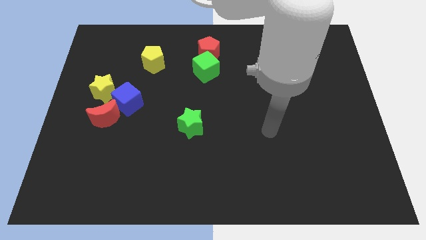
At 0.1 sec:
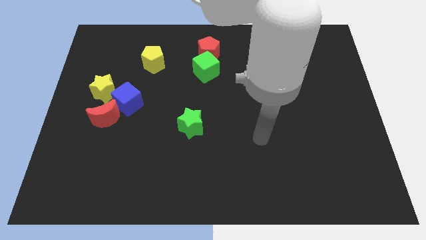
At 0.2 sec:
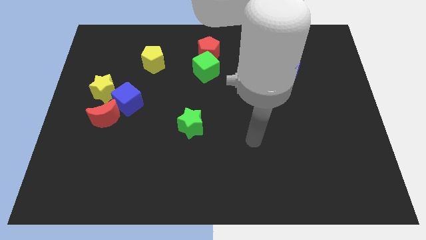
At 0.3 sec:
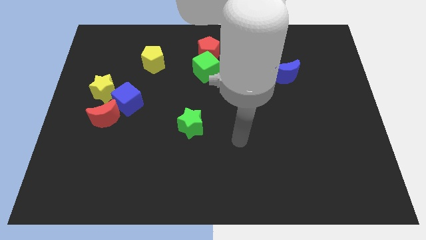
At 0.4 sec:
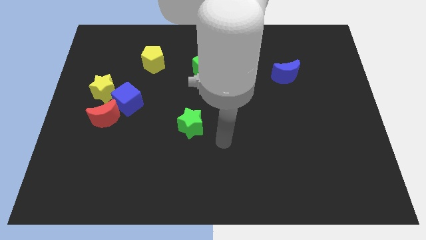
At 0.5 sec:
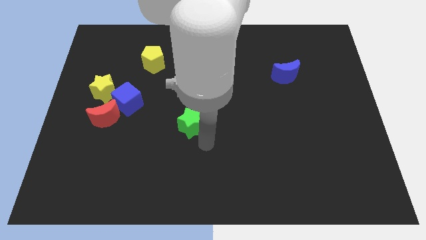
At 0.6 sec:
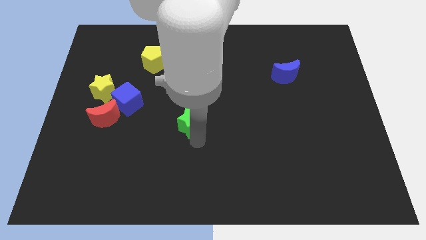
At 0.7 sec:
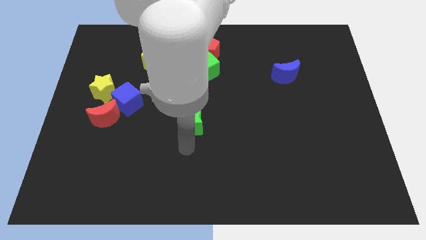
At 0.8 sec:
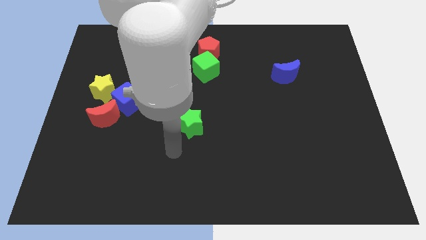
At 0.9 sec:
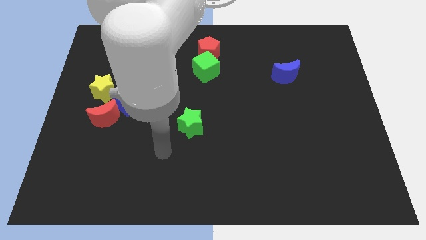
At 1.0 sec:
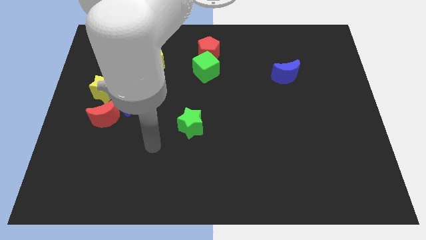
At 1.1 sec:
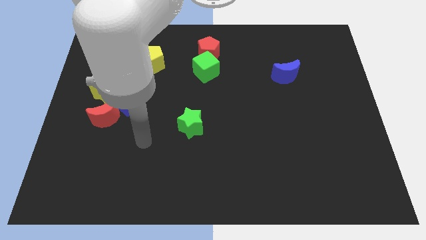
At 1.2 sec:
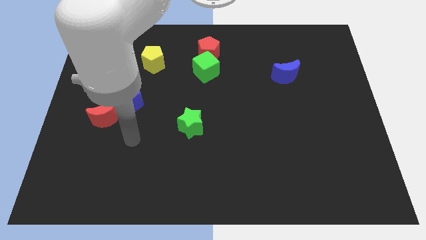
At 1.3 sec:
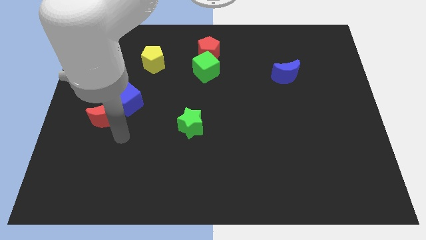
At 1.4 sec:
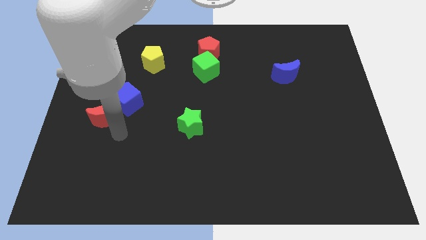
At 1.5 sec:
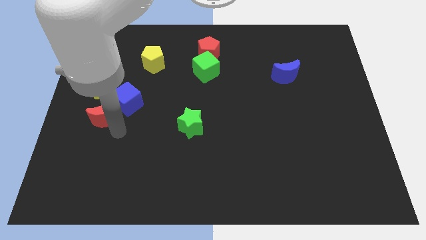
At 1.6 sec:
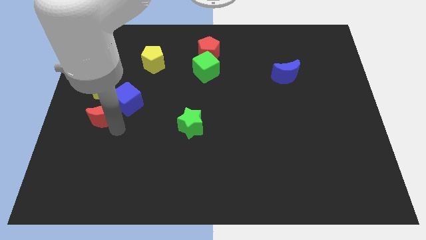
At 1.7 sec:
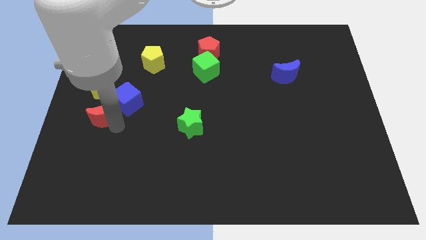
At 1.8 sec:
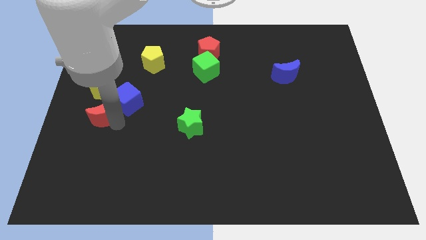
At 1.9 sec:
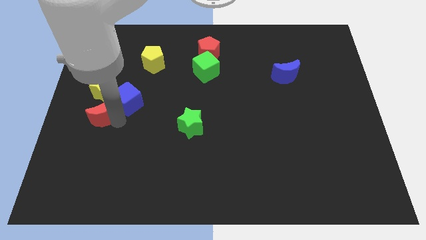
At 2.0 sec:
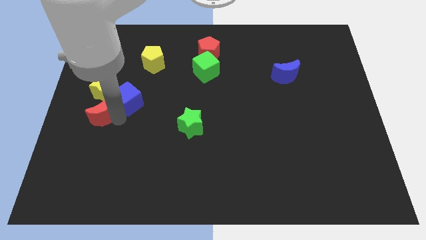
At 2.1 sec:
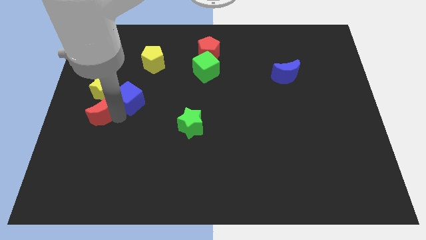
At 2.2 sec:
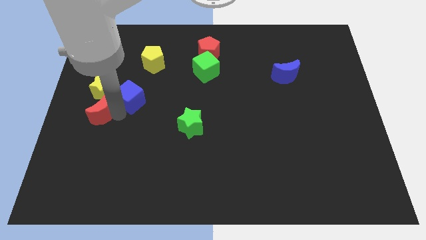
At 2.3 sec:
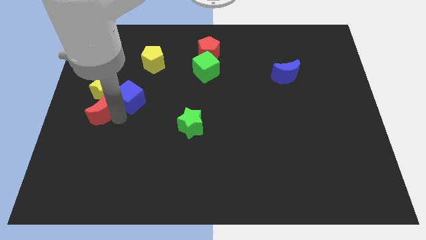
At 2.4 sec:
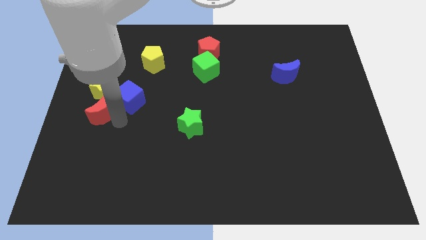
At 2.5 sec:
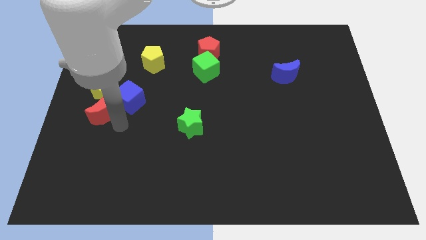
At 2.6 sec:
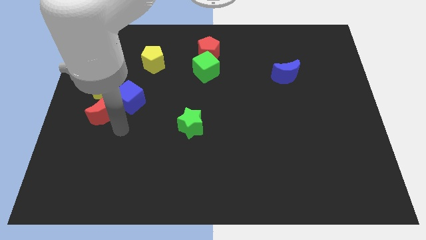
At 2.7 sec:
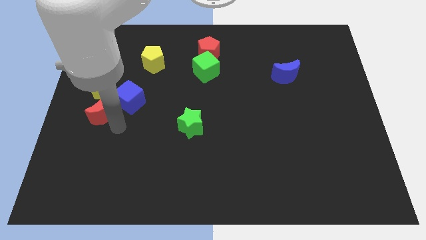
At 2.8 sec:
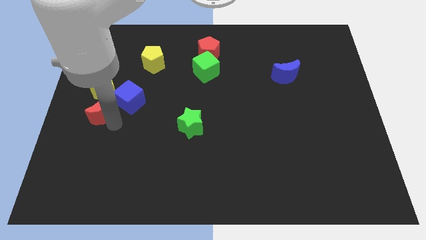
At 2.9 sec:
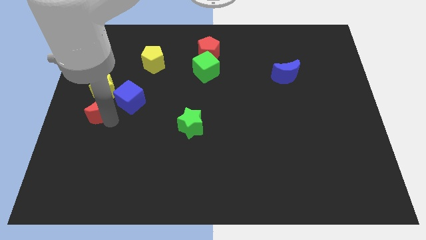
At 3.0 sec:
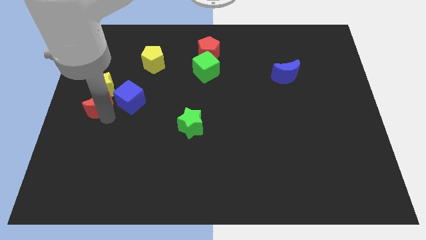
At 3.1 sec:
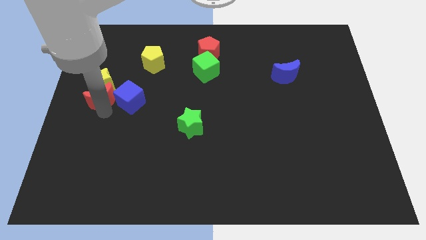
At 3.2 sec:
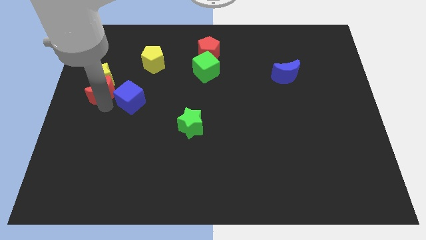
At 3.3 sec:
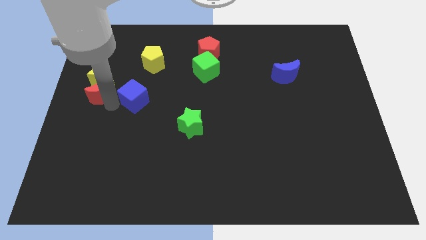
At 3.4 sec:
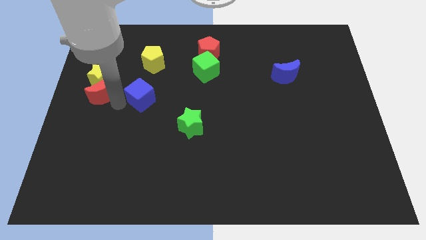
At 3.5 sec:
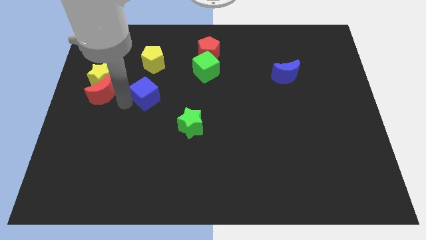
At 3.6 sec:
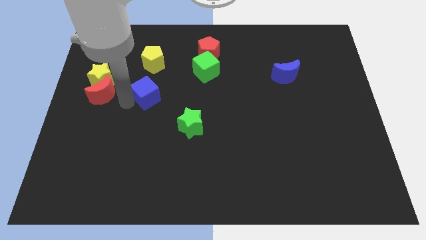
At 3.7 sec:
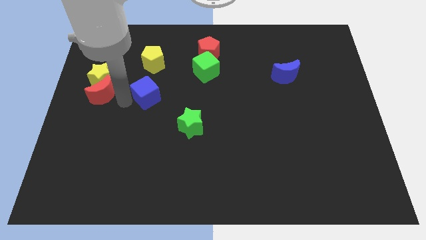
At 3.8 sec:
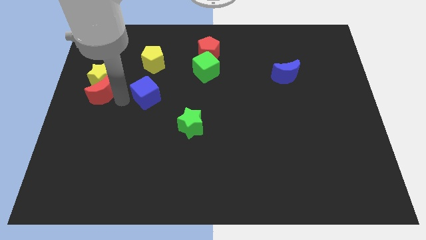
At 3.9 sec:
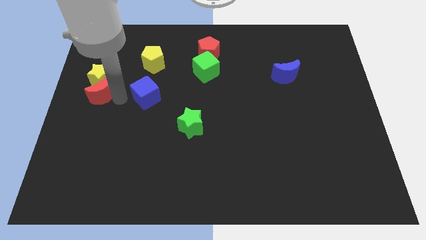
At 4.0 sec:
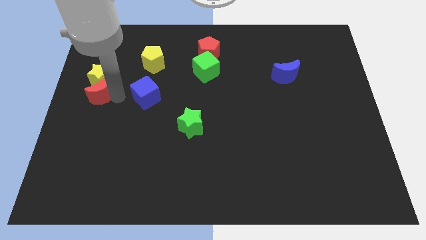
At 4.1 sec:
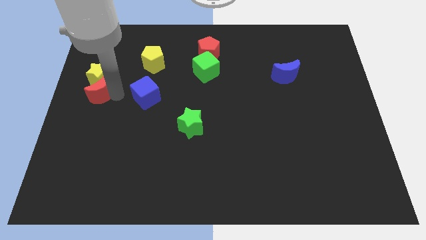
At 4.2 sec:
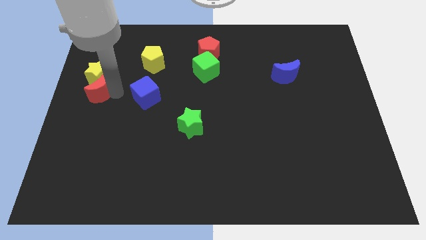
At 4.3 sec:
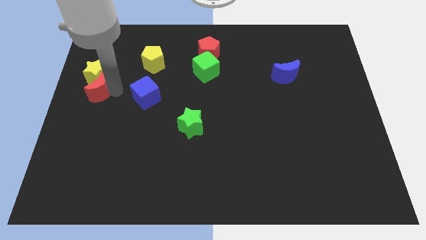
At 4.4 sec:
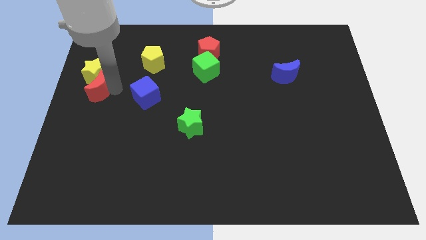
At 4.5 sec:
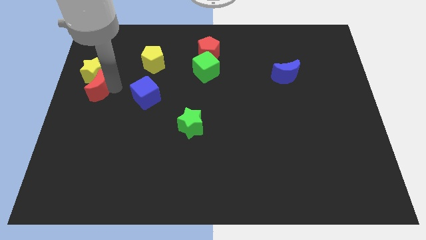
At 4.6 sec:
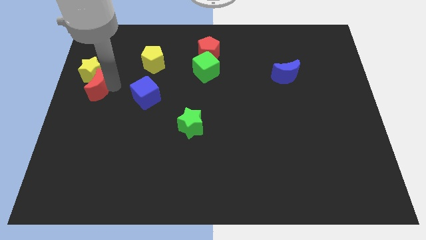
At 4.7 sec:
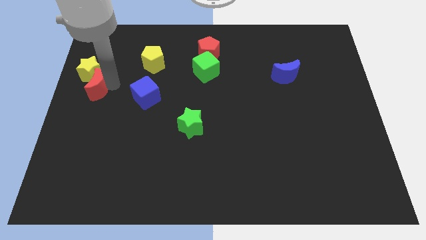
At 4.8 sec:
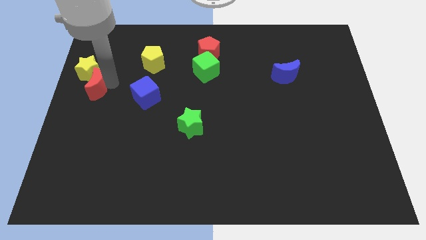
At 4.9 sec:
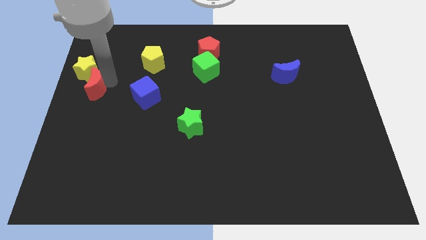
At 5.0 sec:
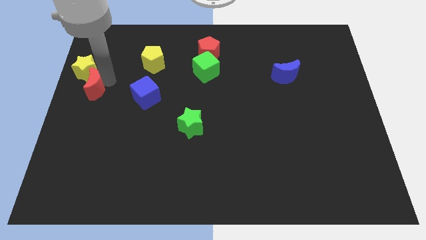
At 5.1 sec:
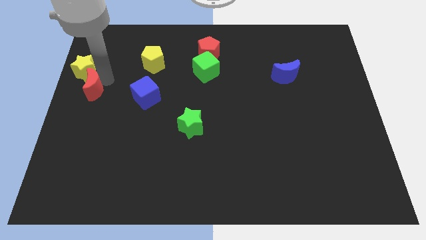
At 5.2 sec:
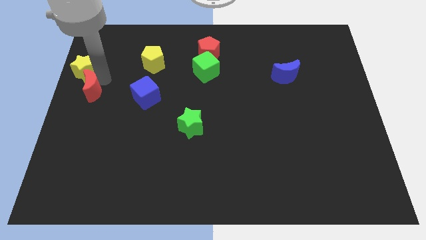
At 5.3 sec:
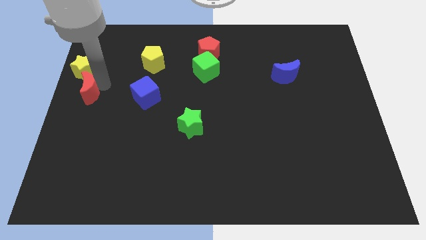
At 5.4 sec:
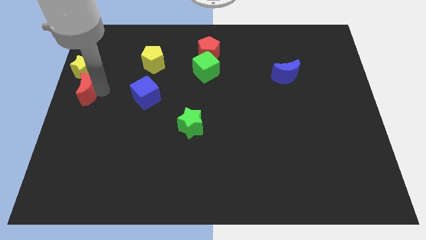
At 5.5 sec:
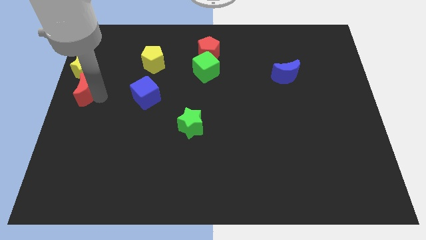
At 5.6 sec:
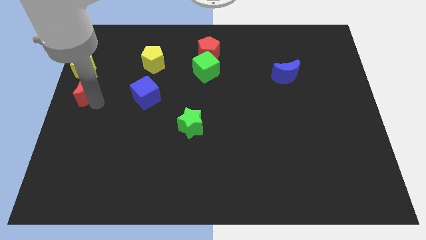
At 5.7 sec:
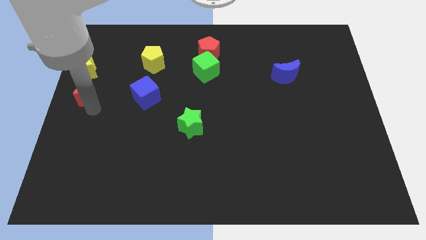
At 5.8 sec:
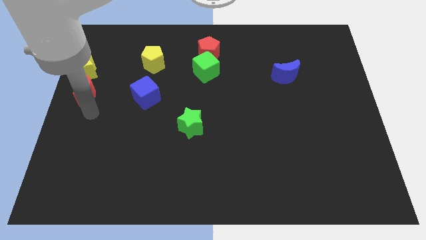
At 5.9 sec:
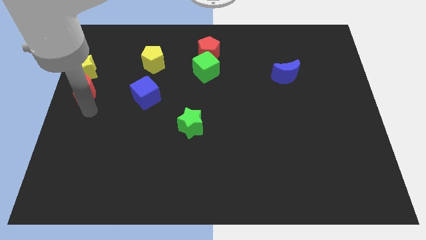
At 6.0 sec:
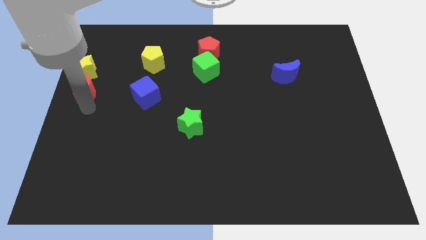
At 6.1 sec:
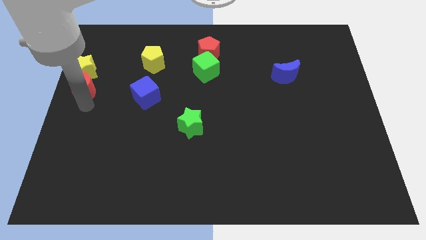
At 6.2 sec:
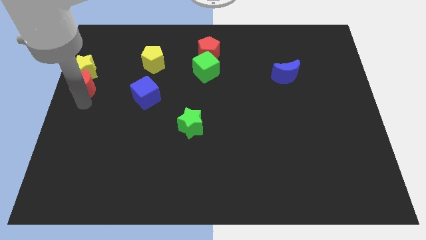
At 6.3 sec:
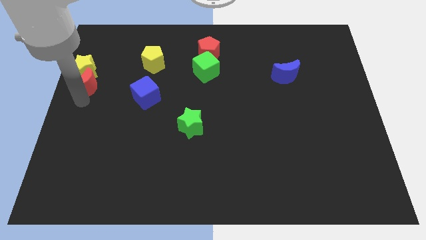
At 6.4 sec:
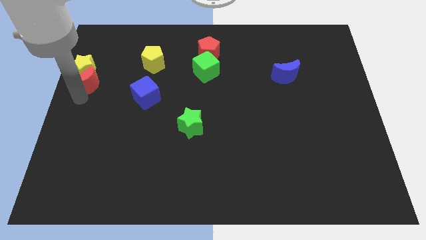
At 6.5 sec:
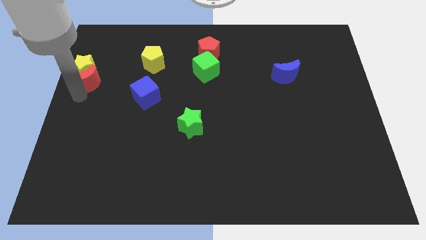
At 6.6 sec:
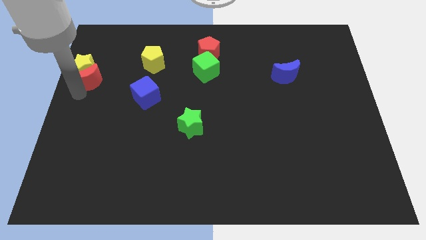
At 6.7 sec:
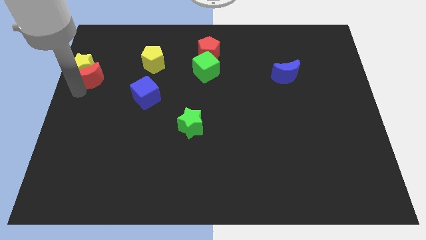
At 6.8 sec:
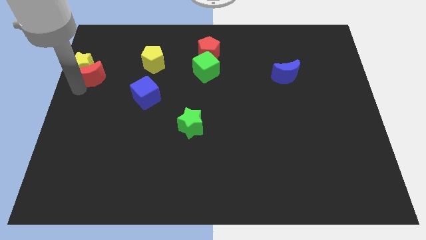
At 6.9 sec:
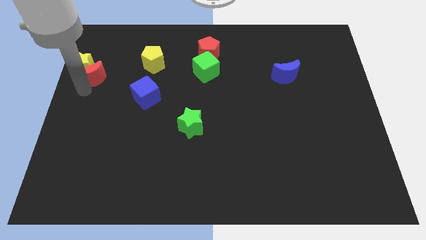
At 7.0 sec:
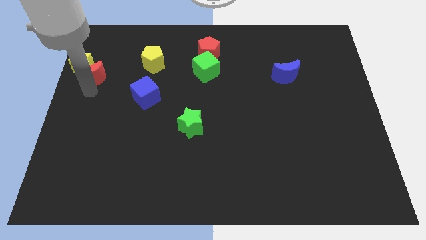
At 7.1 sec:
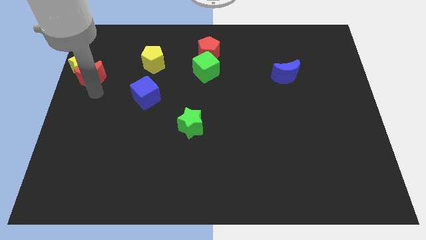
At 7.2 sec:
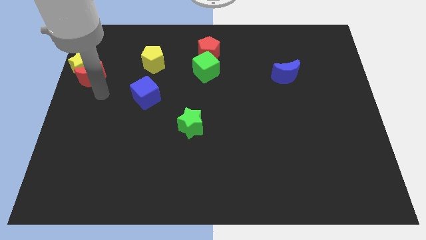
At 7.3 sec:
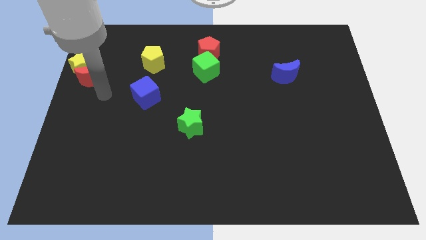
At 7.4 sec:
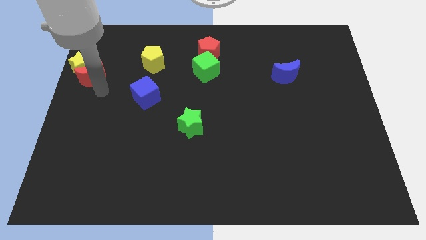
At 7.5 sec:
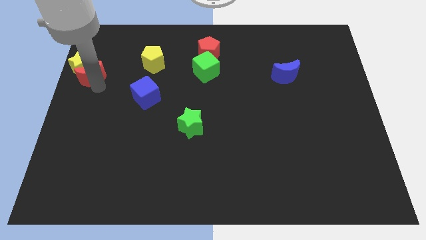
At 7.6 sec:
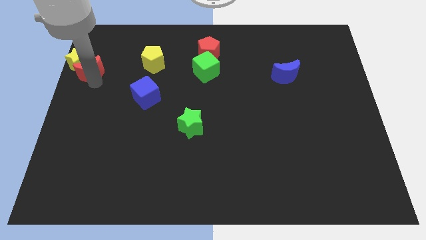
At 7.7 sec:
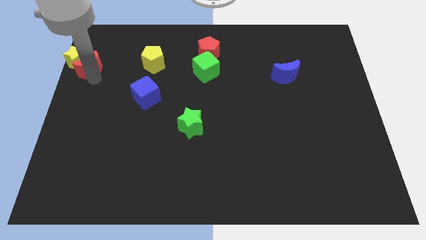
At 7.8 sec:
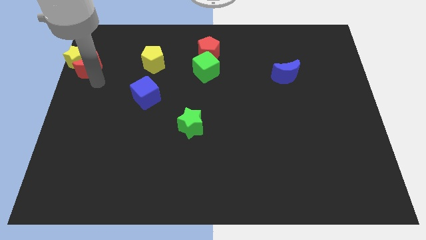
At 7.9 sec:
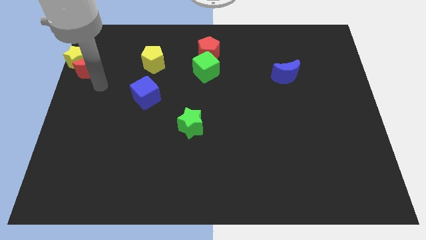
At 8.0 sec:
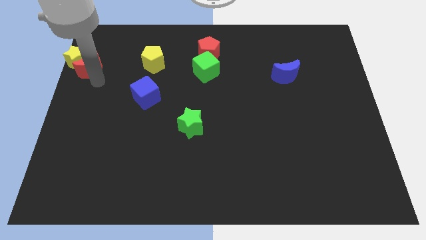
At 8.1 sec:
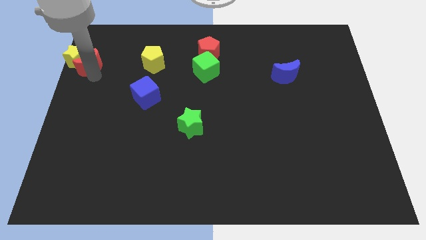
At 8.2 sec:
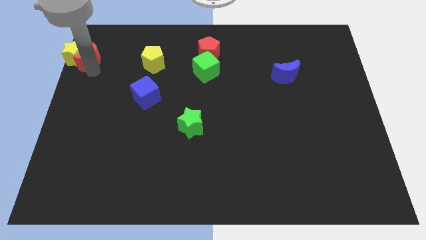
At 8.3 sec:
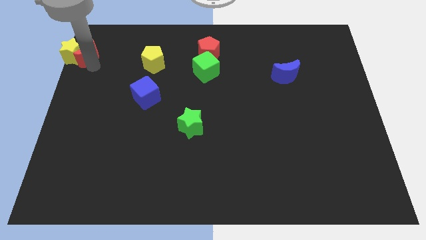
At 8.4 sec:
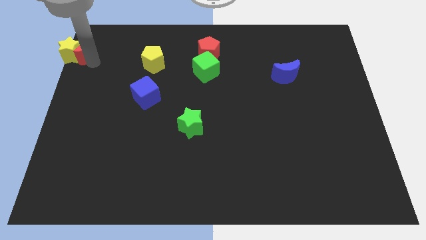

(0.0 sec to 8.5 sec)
push the red moon to the upper left corner
